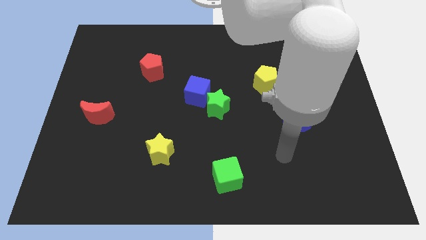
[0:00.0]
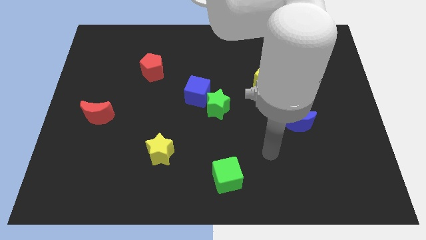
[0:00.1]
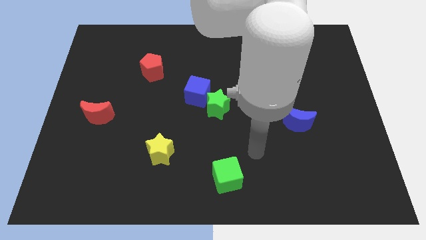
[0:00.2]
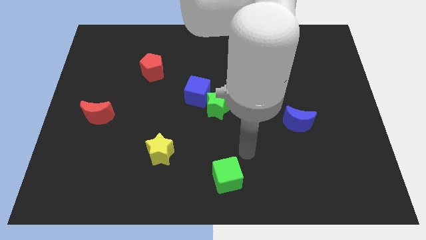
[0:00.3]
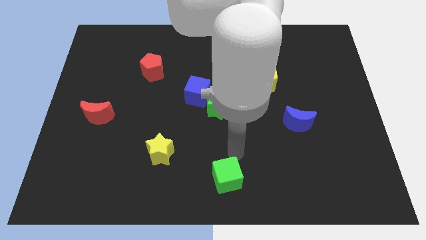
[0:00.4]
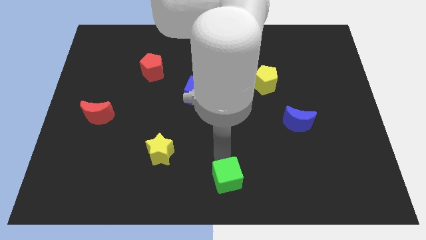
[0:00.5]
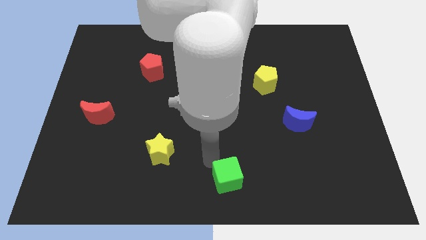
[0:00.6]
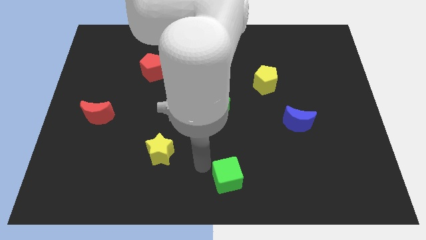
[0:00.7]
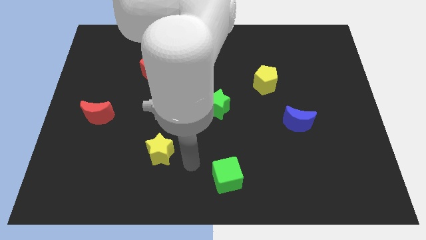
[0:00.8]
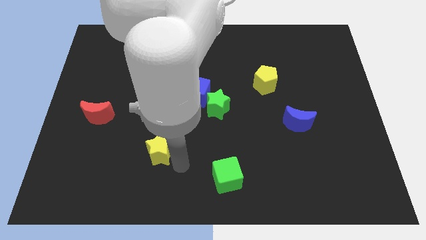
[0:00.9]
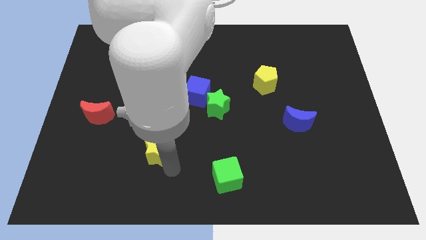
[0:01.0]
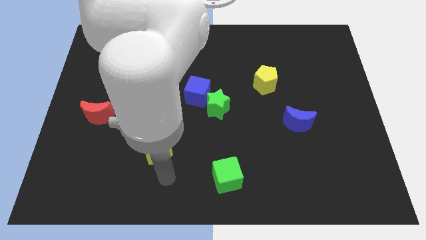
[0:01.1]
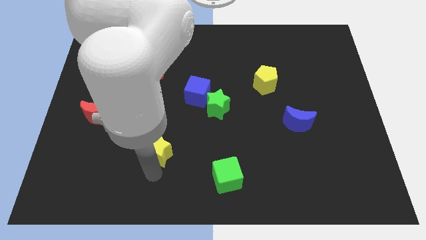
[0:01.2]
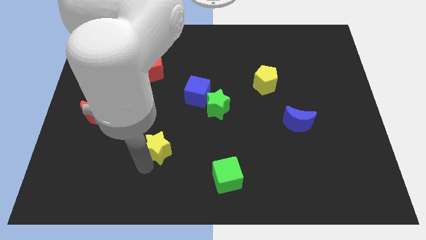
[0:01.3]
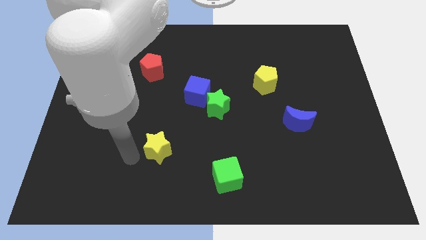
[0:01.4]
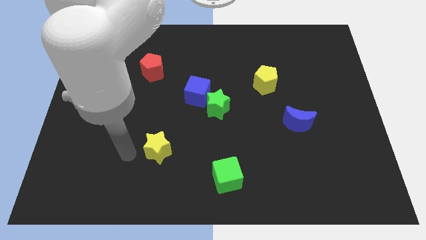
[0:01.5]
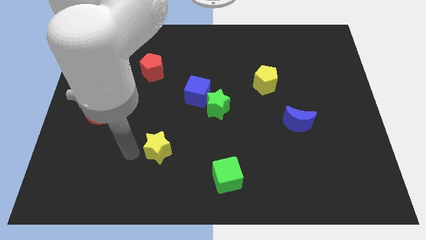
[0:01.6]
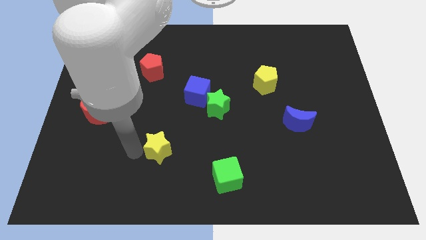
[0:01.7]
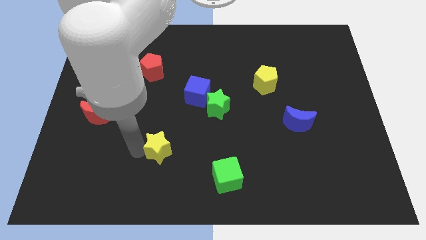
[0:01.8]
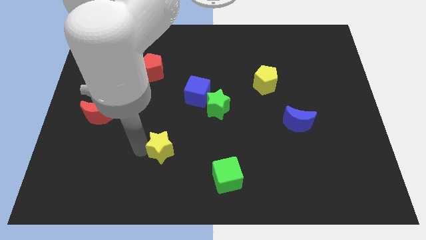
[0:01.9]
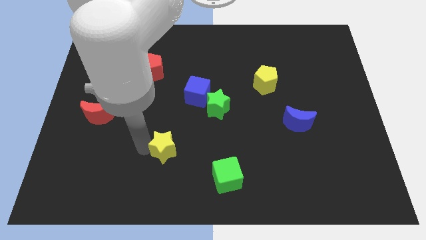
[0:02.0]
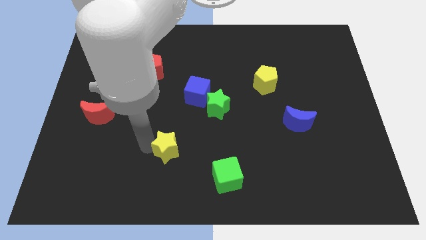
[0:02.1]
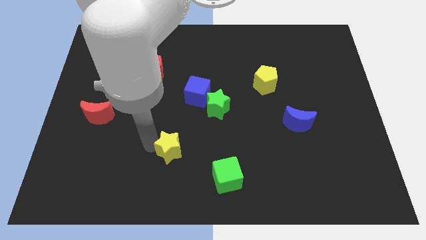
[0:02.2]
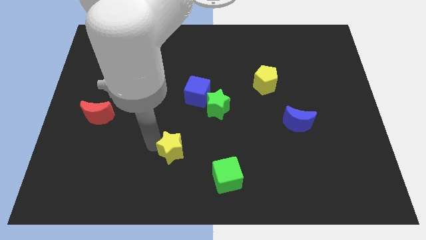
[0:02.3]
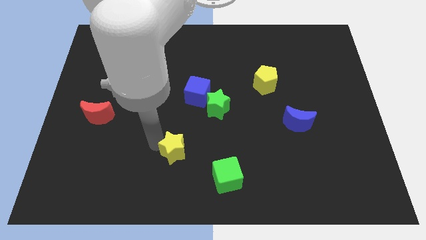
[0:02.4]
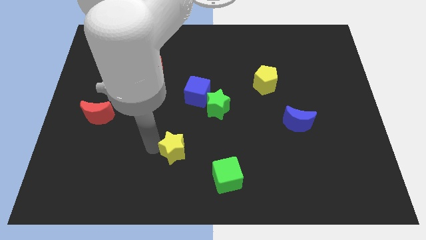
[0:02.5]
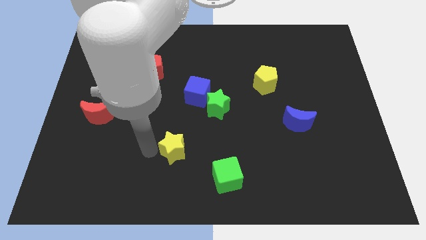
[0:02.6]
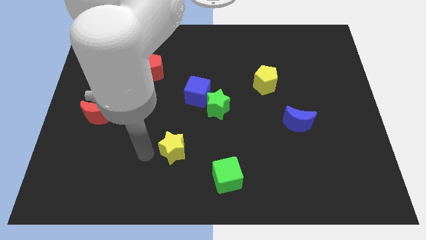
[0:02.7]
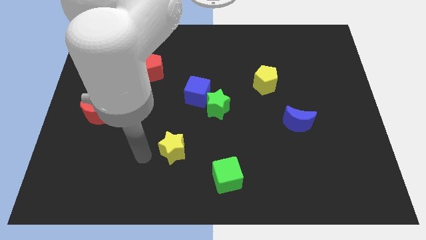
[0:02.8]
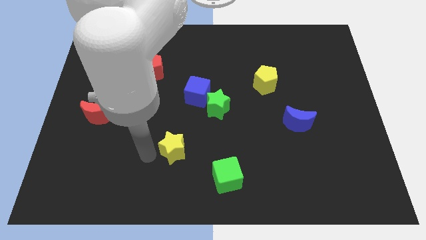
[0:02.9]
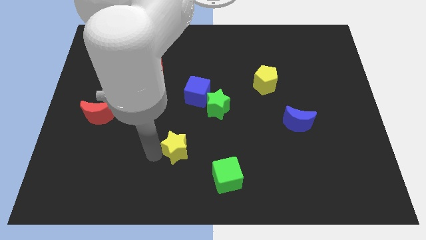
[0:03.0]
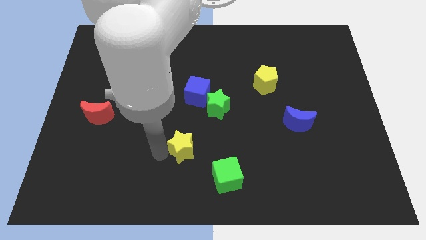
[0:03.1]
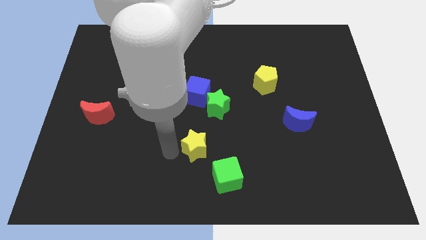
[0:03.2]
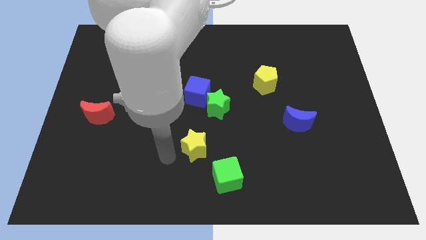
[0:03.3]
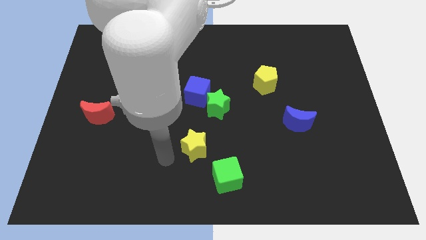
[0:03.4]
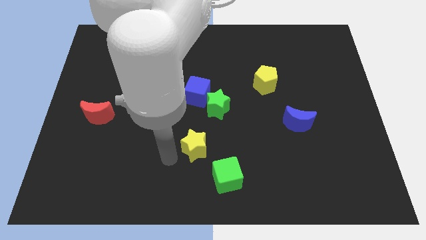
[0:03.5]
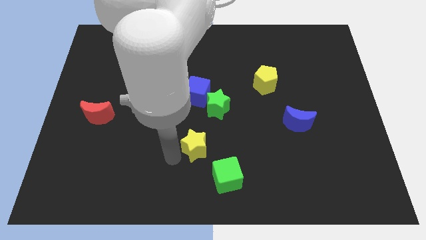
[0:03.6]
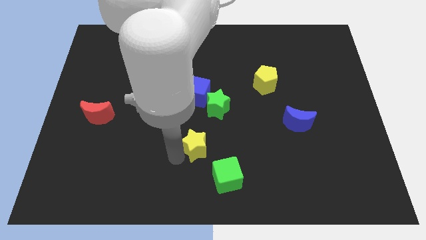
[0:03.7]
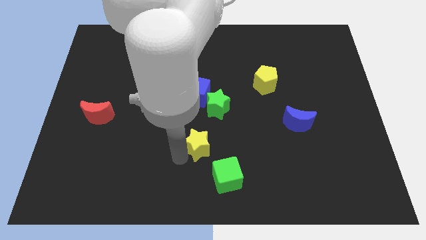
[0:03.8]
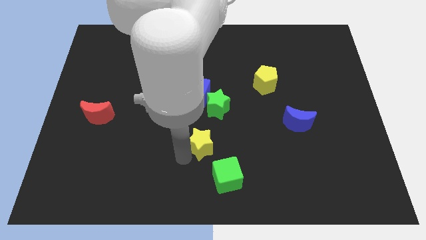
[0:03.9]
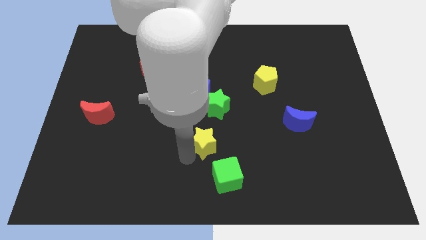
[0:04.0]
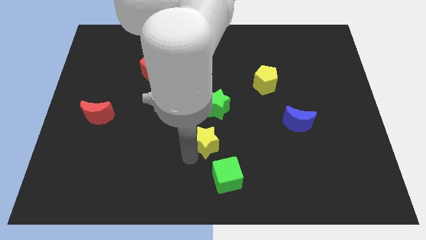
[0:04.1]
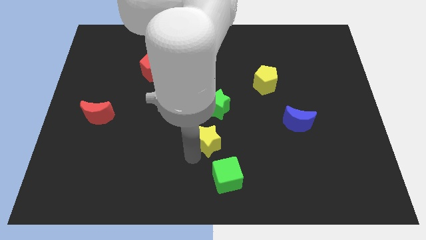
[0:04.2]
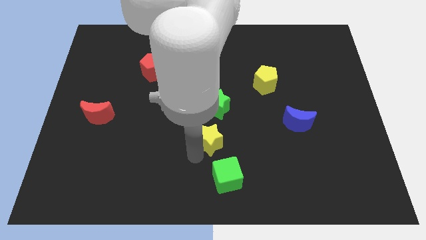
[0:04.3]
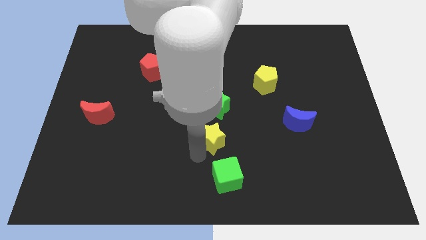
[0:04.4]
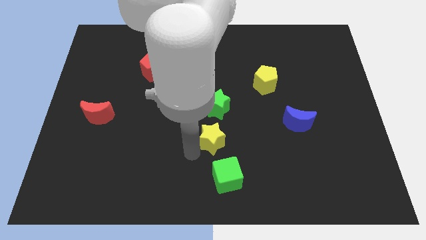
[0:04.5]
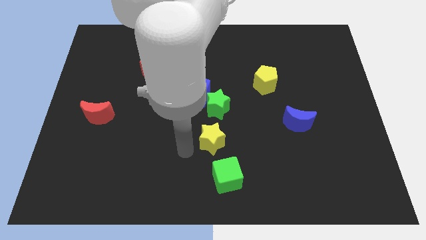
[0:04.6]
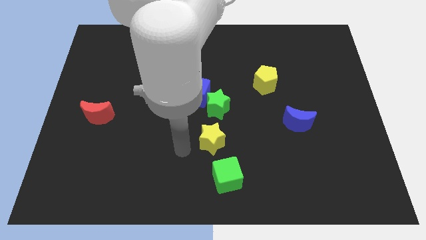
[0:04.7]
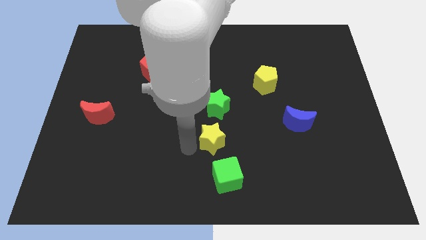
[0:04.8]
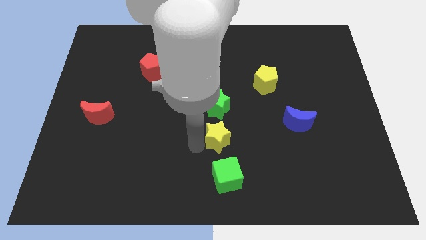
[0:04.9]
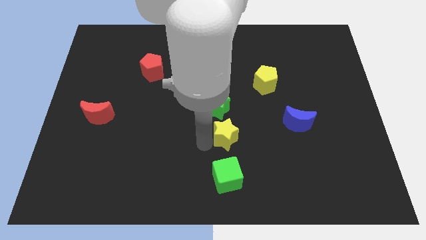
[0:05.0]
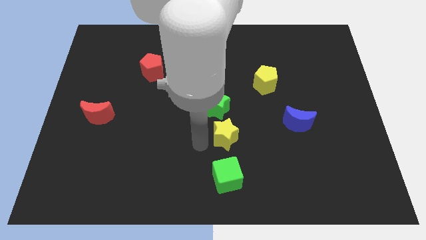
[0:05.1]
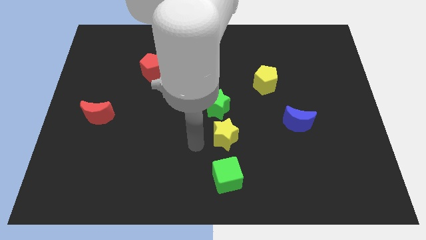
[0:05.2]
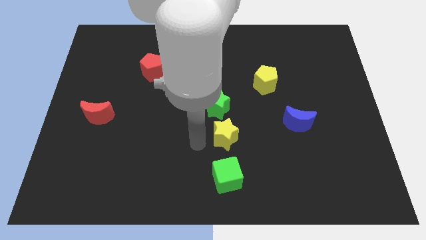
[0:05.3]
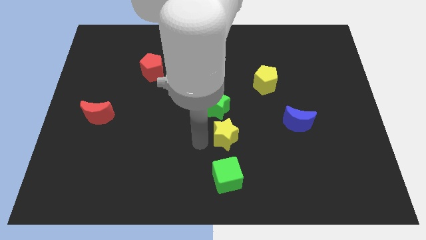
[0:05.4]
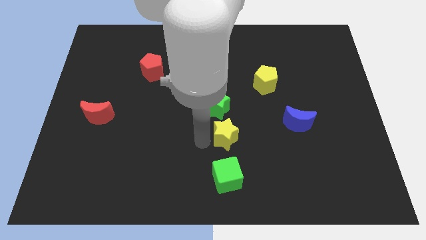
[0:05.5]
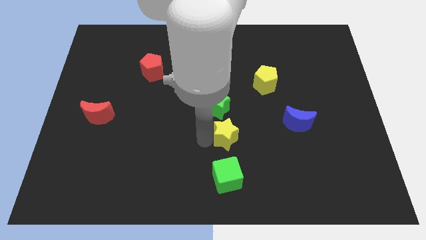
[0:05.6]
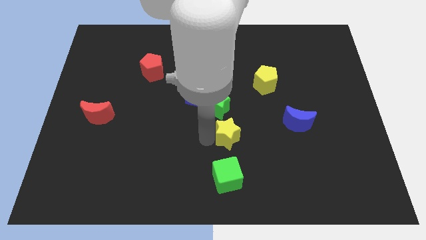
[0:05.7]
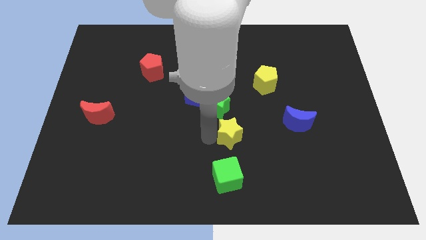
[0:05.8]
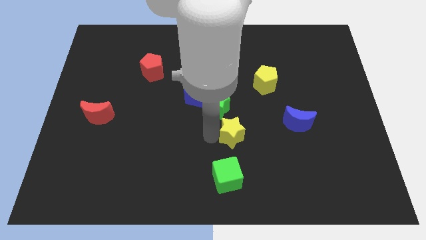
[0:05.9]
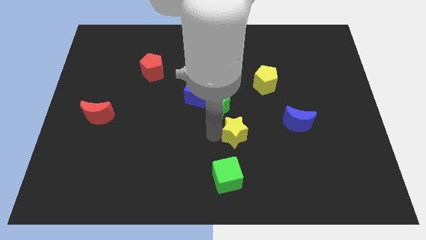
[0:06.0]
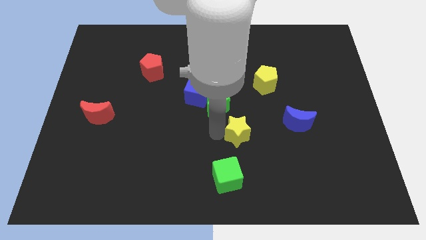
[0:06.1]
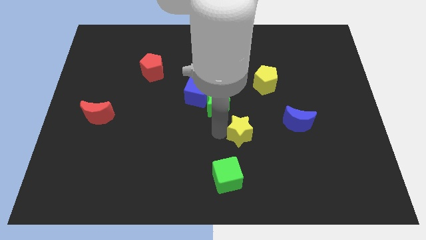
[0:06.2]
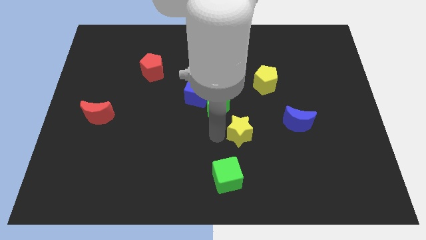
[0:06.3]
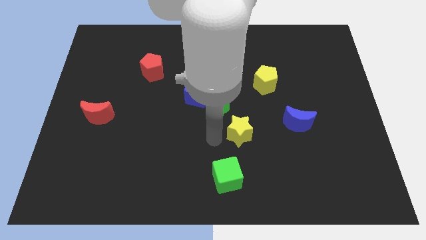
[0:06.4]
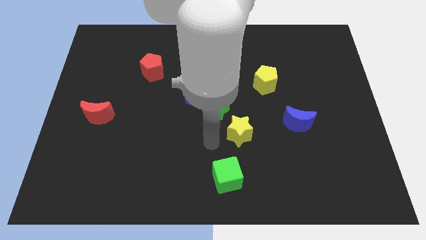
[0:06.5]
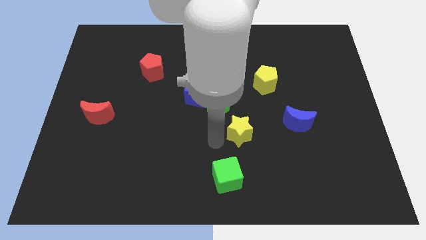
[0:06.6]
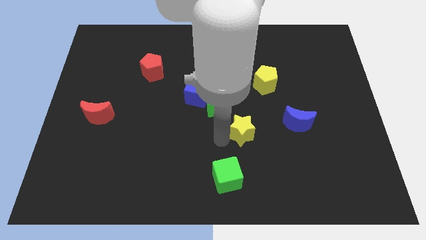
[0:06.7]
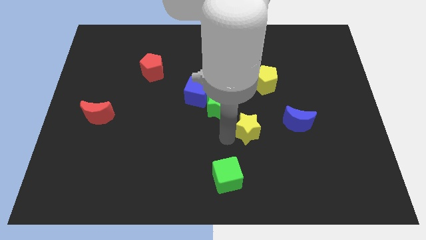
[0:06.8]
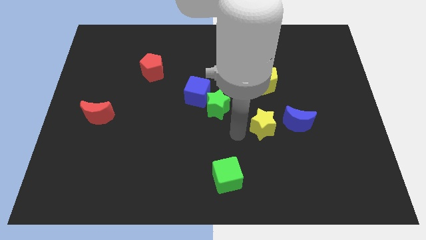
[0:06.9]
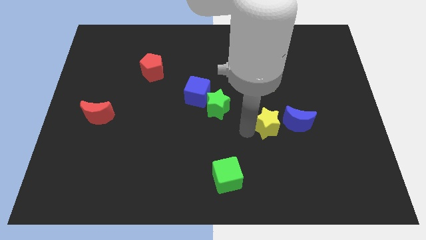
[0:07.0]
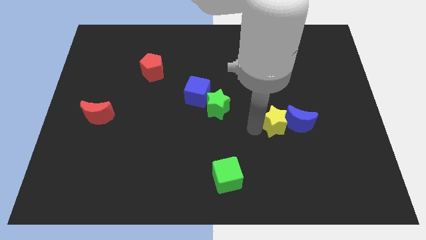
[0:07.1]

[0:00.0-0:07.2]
put the yellow star to the blue moon
